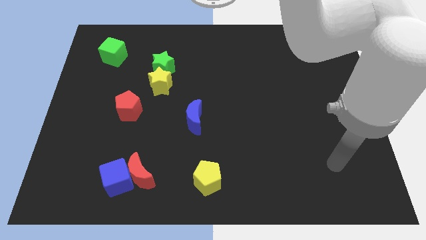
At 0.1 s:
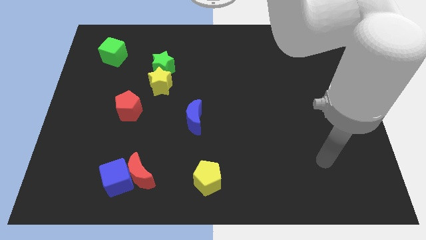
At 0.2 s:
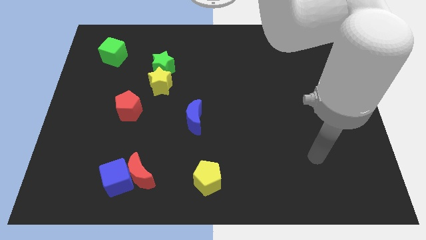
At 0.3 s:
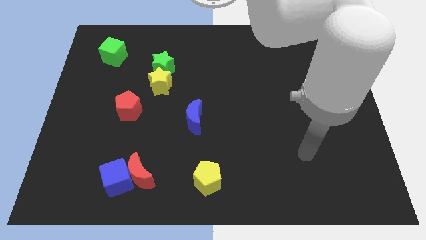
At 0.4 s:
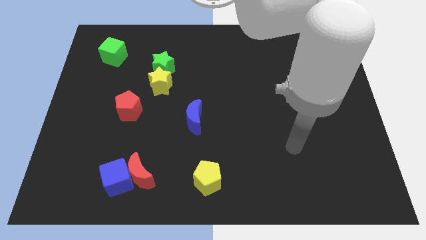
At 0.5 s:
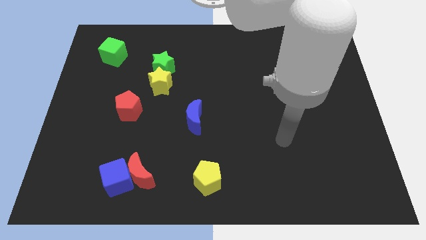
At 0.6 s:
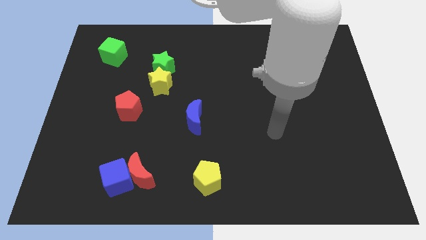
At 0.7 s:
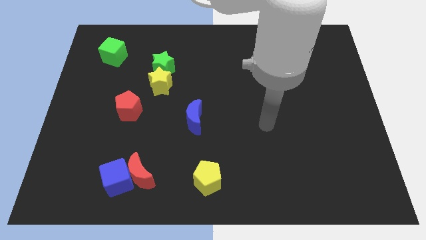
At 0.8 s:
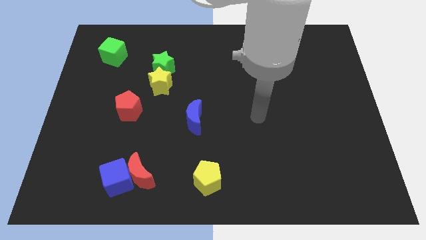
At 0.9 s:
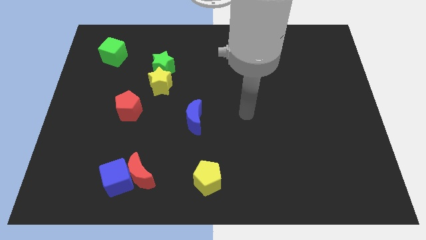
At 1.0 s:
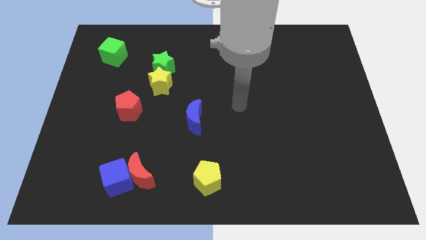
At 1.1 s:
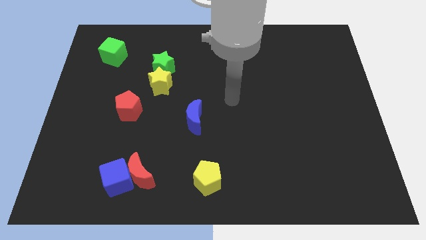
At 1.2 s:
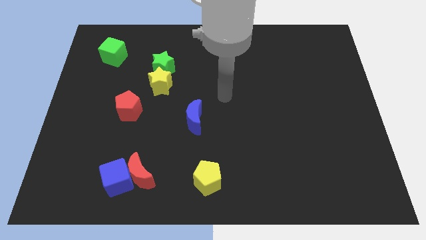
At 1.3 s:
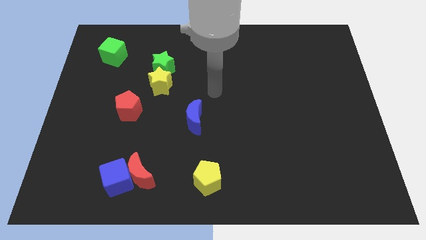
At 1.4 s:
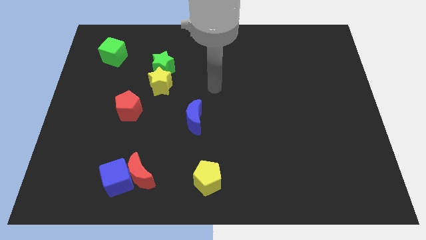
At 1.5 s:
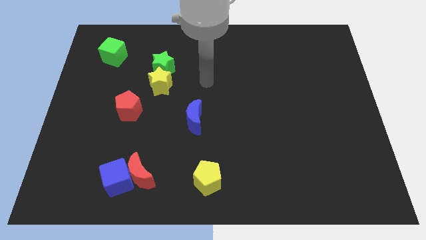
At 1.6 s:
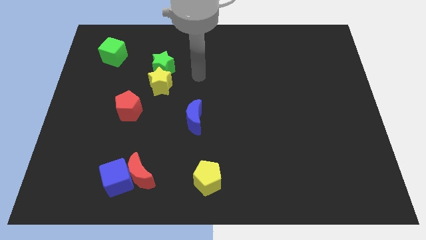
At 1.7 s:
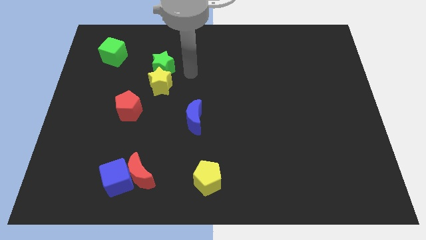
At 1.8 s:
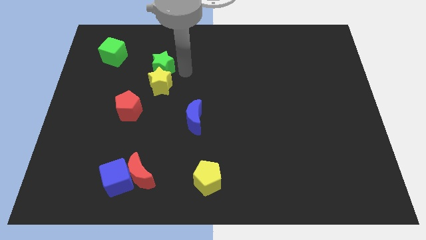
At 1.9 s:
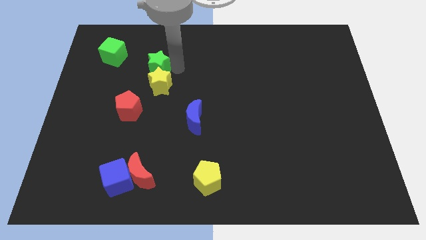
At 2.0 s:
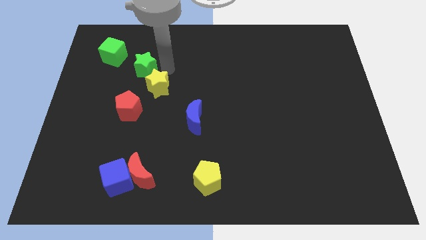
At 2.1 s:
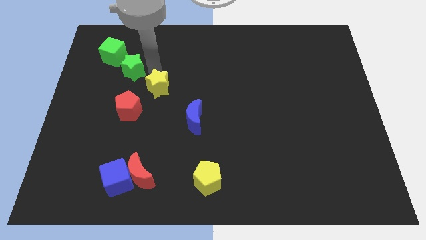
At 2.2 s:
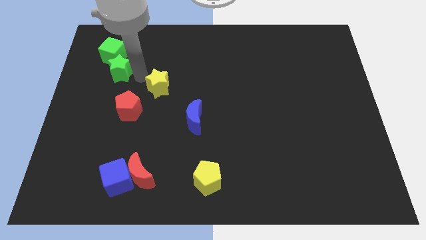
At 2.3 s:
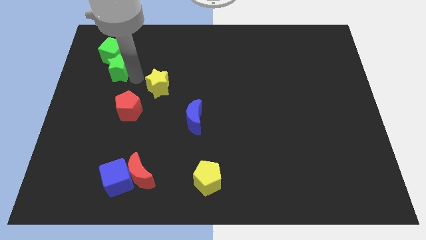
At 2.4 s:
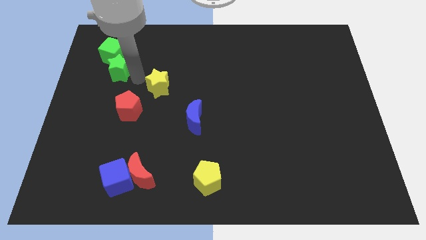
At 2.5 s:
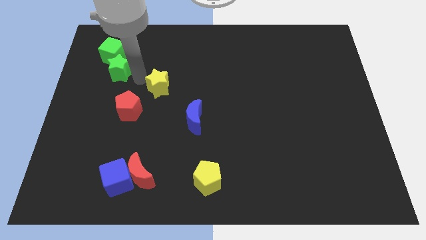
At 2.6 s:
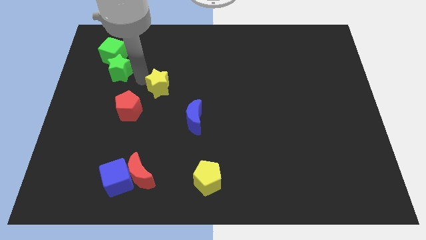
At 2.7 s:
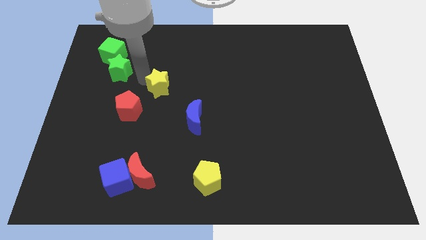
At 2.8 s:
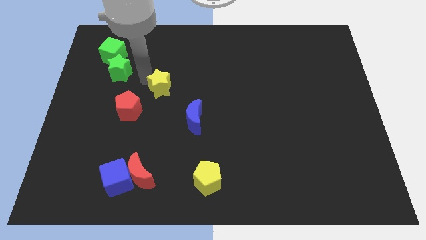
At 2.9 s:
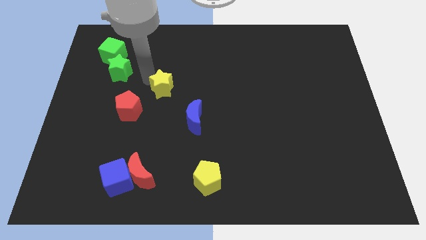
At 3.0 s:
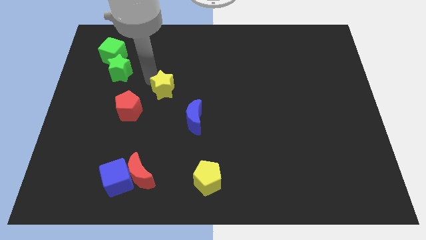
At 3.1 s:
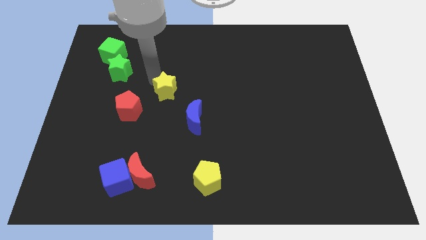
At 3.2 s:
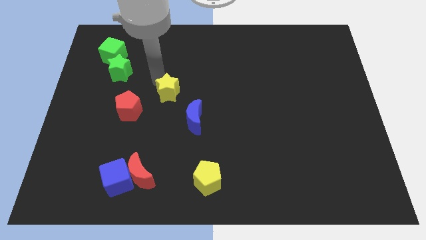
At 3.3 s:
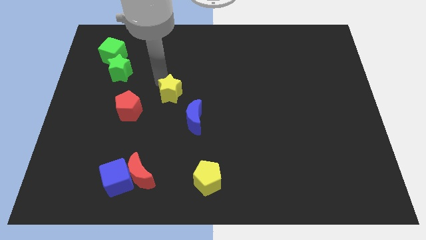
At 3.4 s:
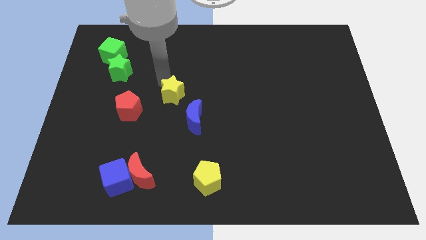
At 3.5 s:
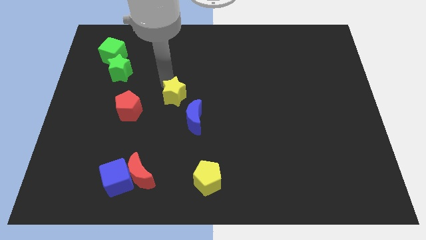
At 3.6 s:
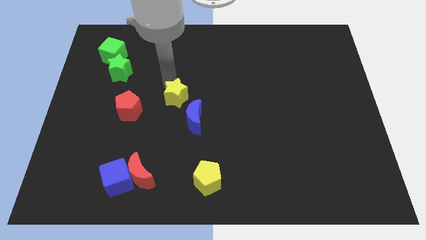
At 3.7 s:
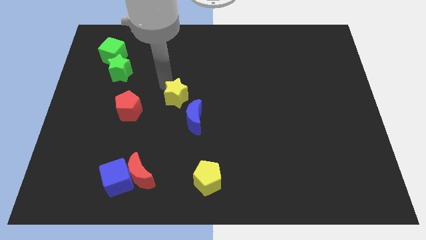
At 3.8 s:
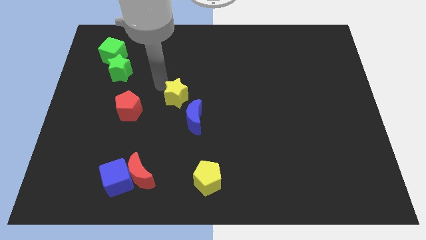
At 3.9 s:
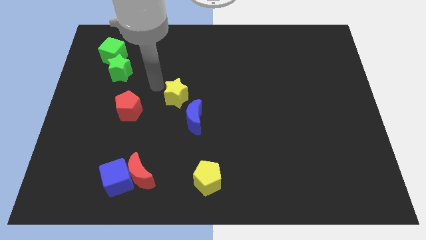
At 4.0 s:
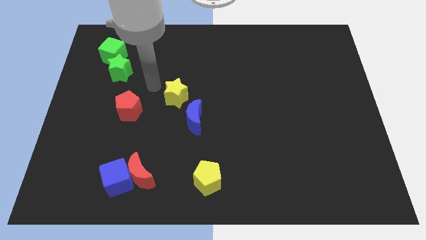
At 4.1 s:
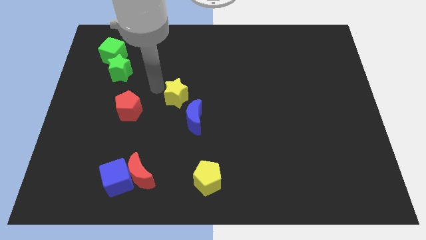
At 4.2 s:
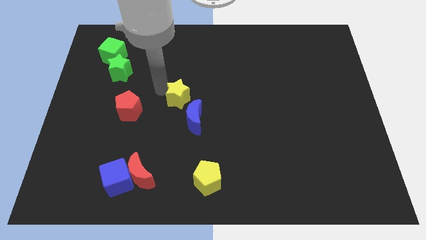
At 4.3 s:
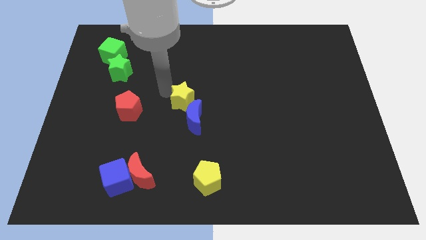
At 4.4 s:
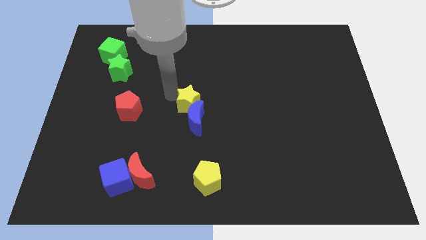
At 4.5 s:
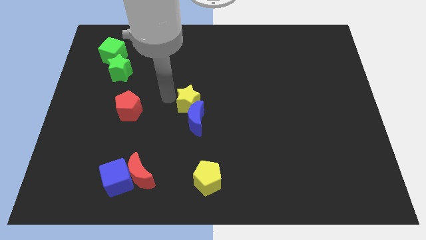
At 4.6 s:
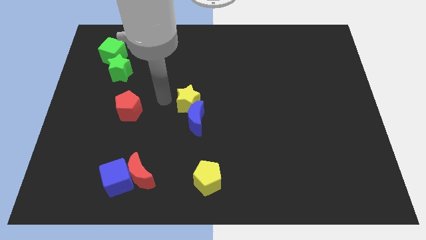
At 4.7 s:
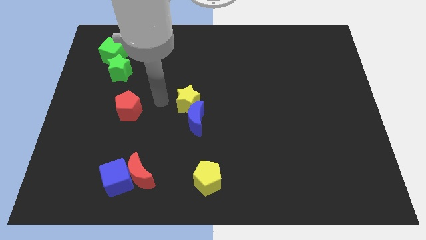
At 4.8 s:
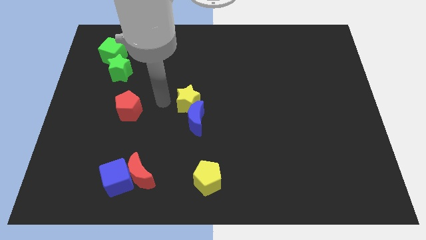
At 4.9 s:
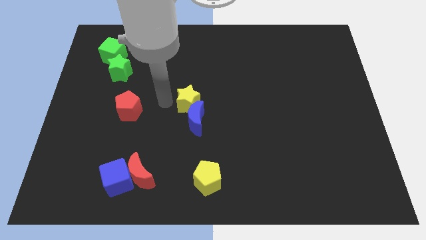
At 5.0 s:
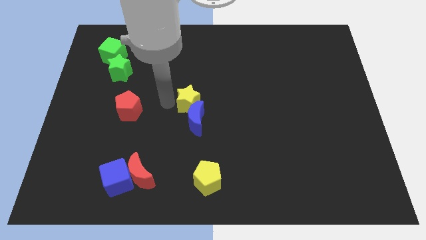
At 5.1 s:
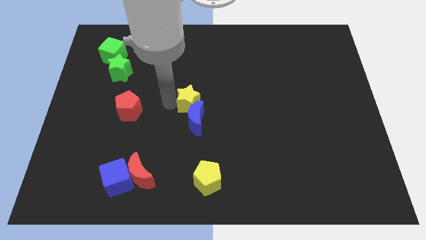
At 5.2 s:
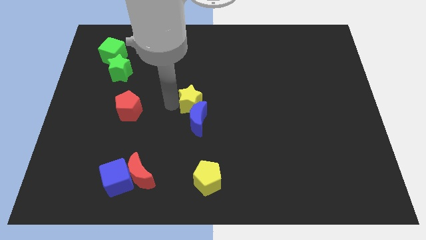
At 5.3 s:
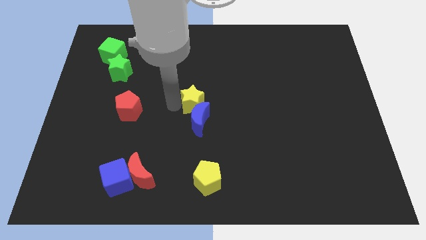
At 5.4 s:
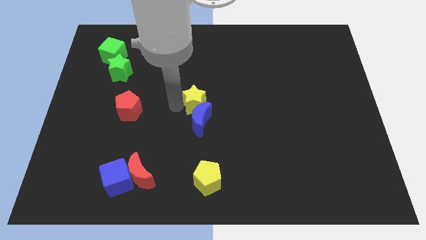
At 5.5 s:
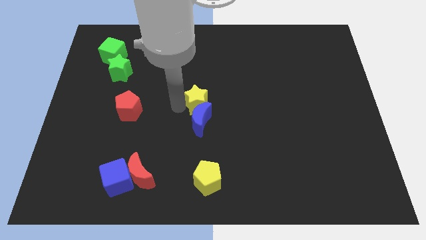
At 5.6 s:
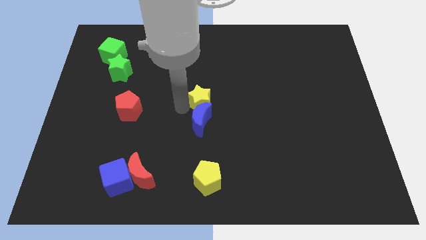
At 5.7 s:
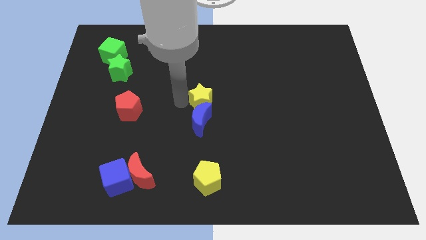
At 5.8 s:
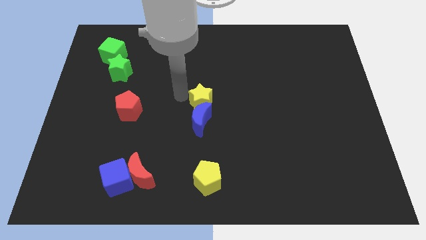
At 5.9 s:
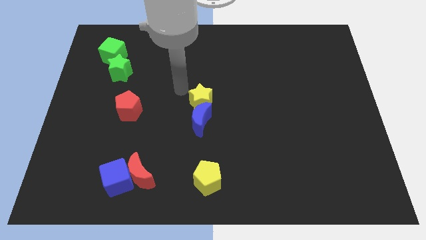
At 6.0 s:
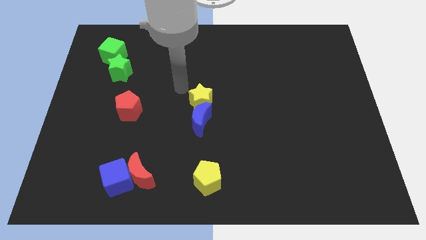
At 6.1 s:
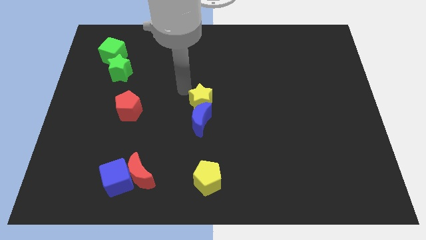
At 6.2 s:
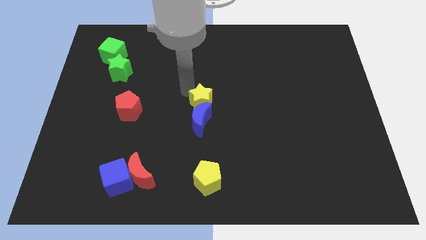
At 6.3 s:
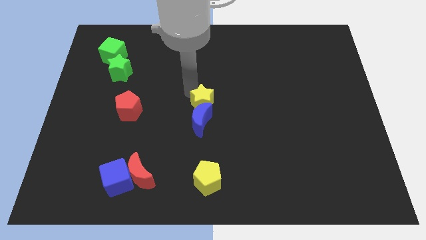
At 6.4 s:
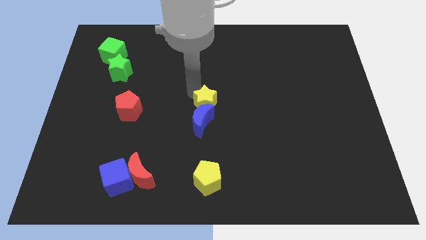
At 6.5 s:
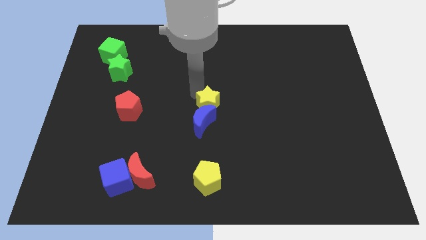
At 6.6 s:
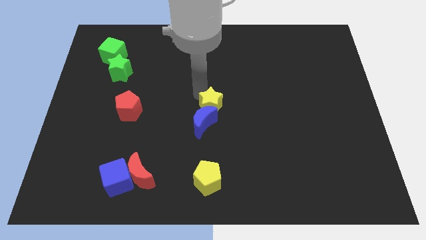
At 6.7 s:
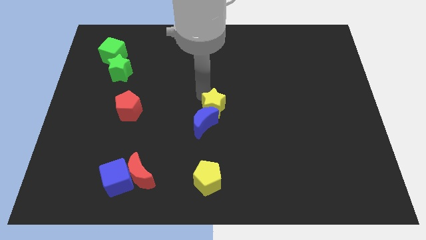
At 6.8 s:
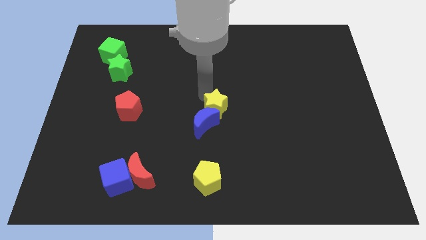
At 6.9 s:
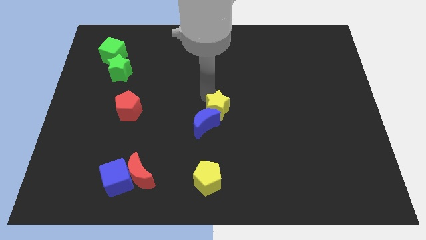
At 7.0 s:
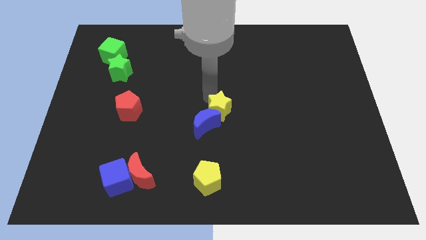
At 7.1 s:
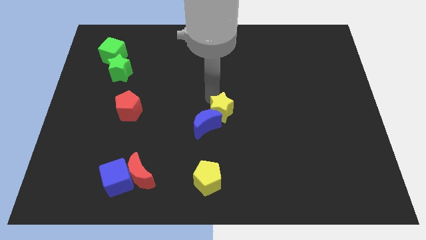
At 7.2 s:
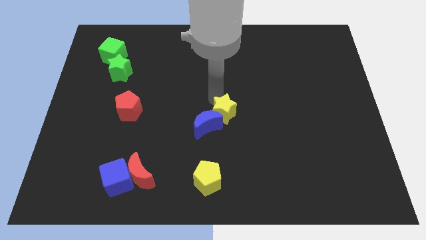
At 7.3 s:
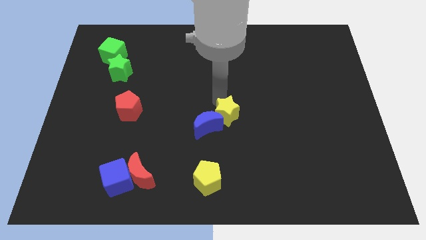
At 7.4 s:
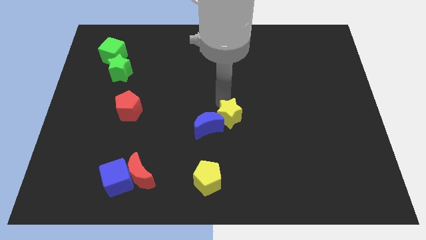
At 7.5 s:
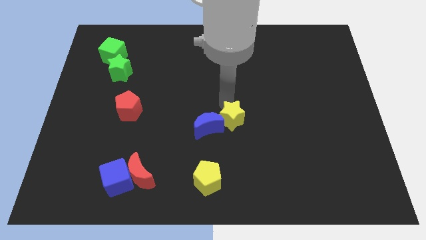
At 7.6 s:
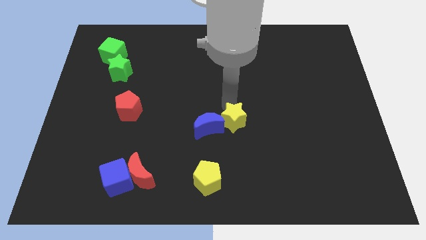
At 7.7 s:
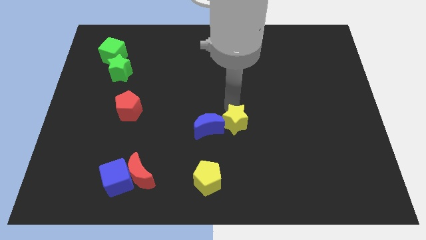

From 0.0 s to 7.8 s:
move the yellow star down and to the right

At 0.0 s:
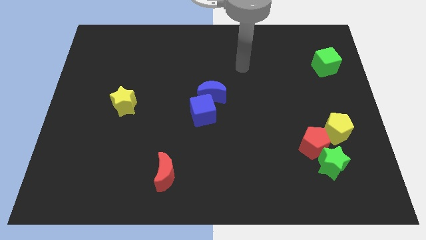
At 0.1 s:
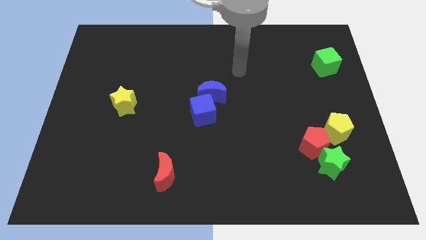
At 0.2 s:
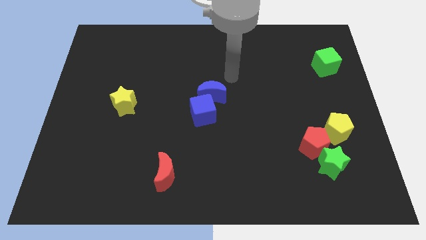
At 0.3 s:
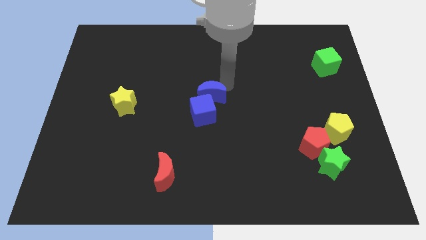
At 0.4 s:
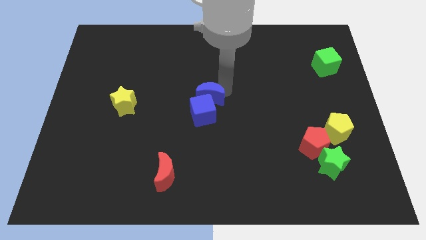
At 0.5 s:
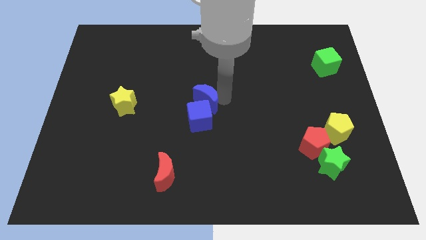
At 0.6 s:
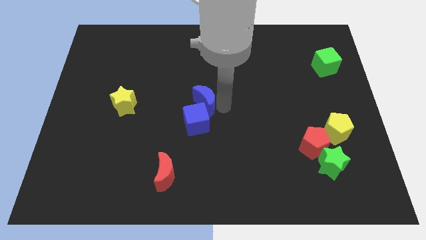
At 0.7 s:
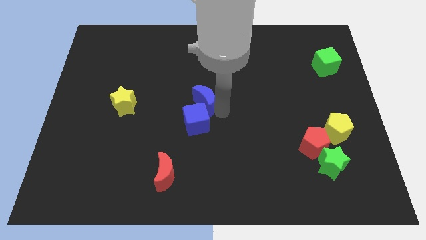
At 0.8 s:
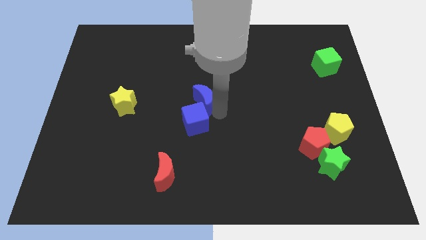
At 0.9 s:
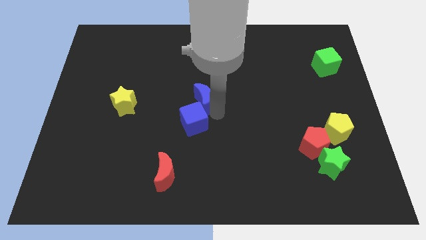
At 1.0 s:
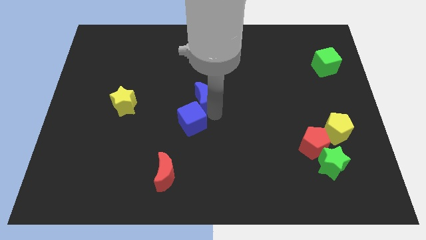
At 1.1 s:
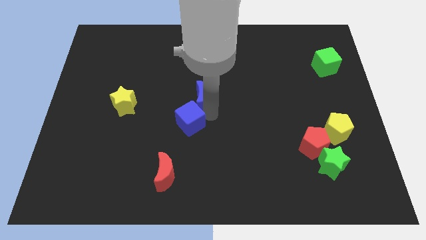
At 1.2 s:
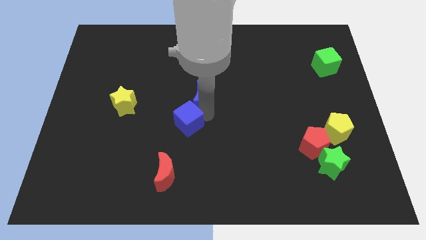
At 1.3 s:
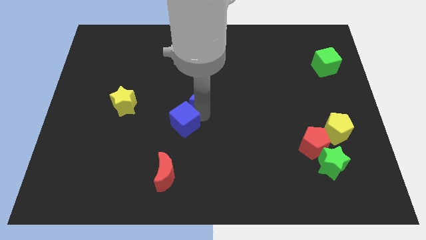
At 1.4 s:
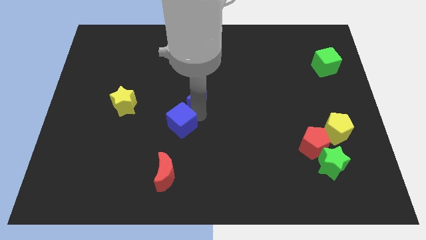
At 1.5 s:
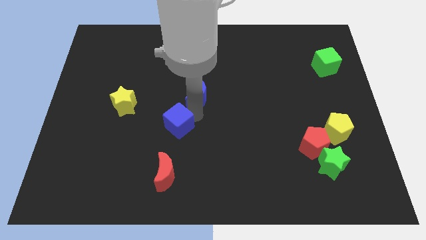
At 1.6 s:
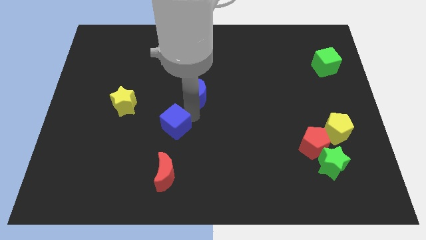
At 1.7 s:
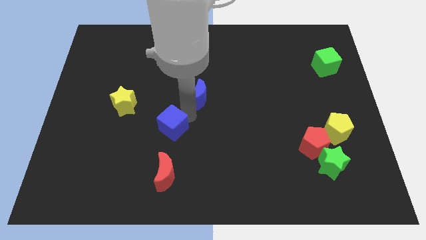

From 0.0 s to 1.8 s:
slightly slide the blue cube down and to the left
